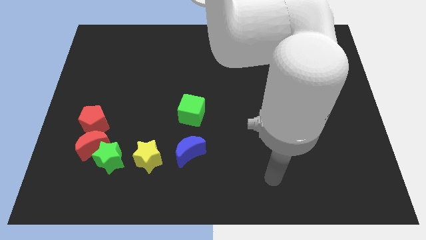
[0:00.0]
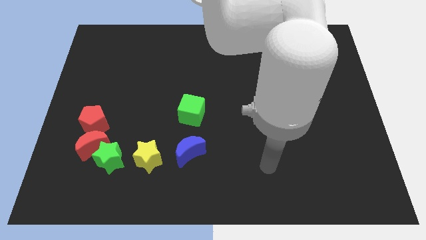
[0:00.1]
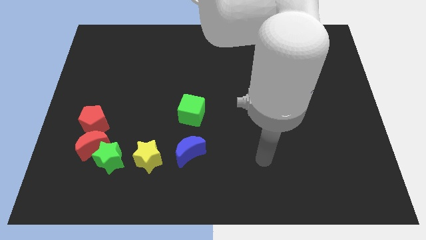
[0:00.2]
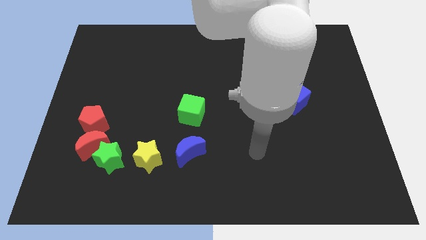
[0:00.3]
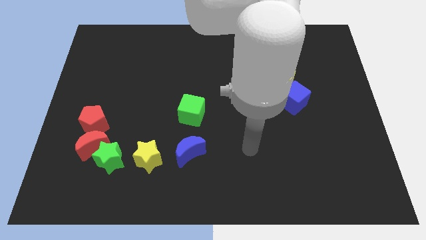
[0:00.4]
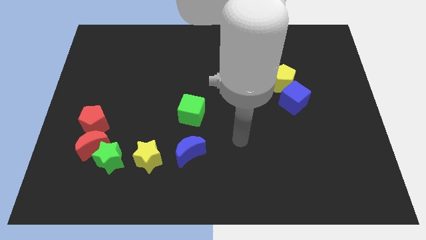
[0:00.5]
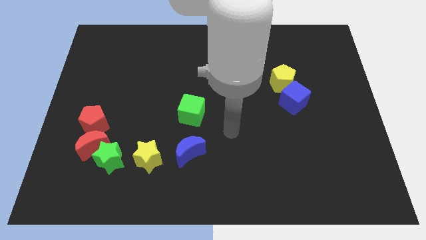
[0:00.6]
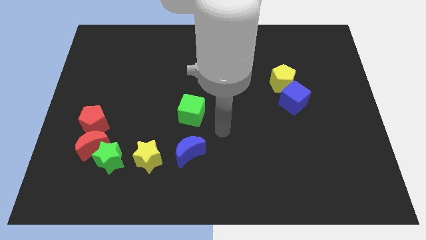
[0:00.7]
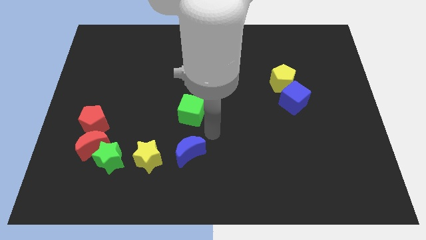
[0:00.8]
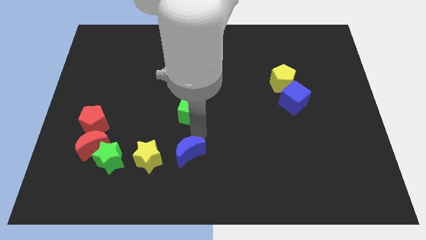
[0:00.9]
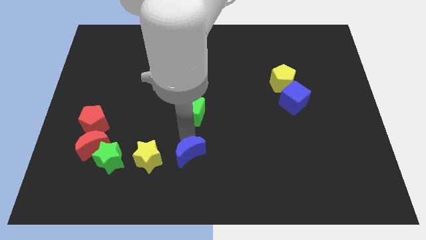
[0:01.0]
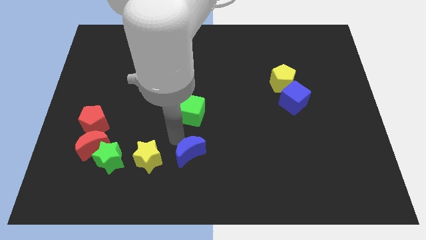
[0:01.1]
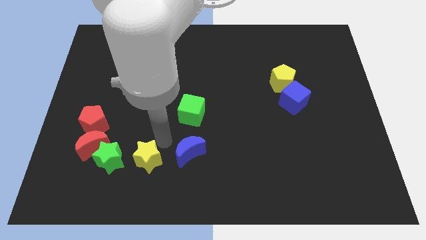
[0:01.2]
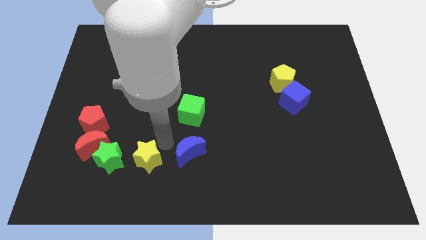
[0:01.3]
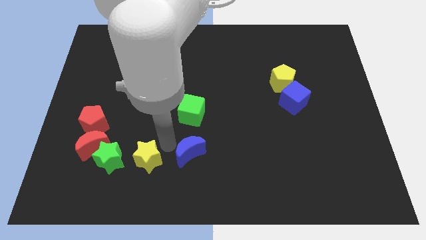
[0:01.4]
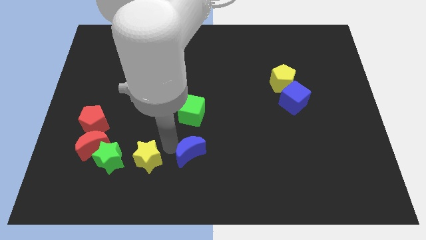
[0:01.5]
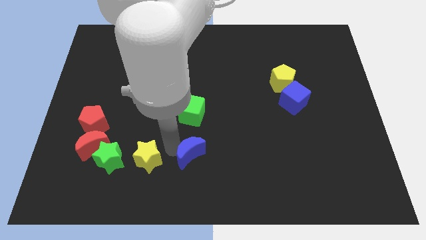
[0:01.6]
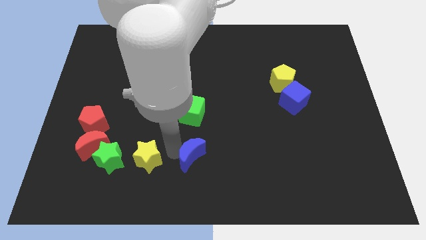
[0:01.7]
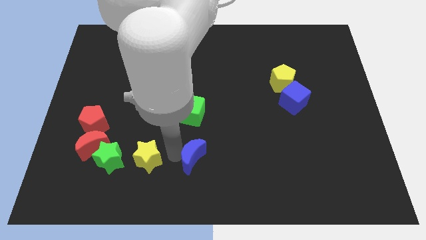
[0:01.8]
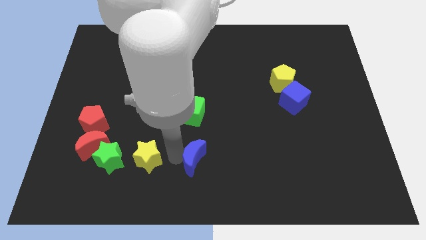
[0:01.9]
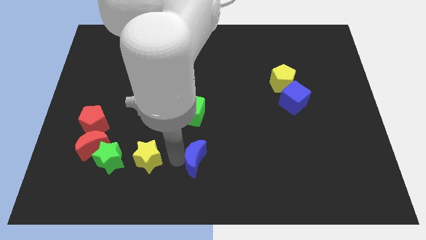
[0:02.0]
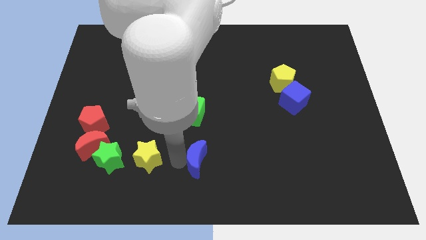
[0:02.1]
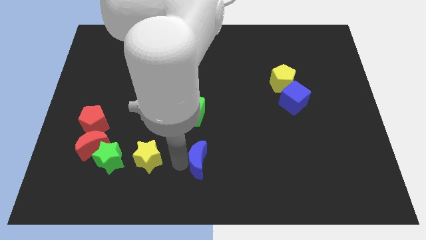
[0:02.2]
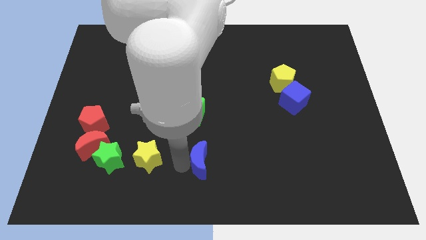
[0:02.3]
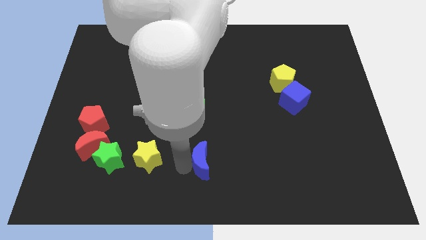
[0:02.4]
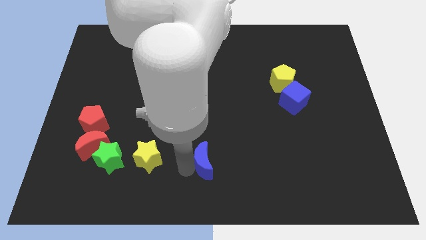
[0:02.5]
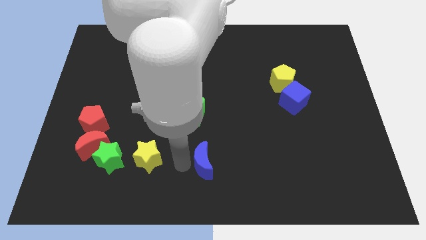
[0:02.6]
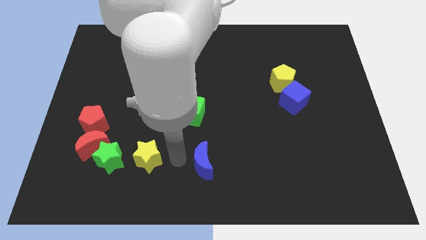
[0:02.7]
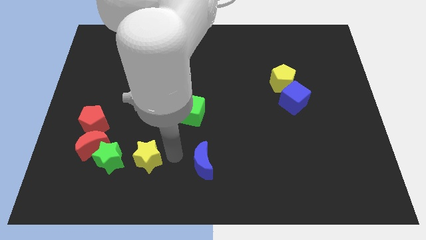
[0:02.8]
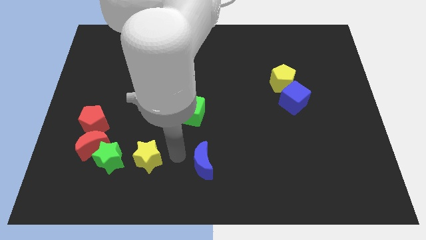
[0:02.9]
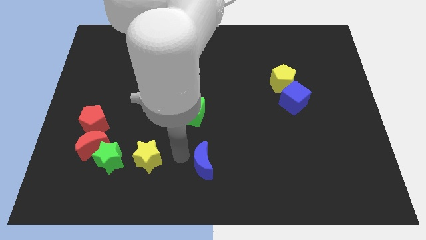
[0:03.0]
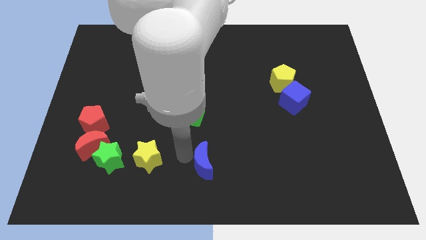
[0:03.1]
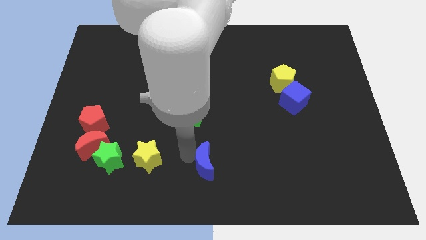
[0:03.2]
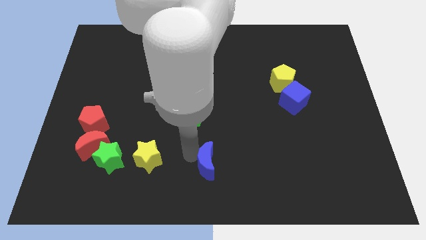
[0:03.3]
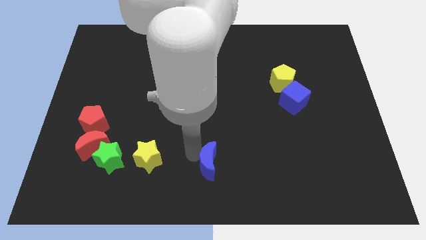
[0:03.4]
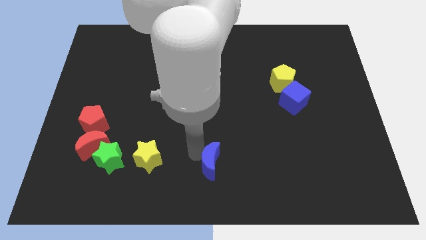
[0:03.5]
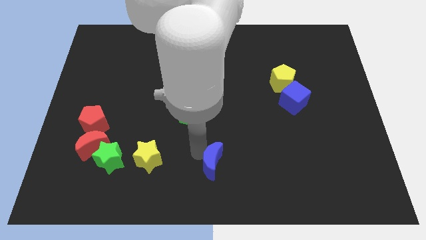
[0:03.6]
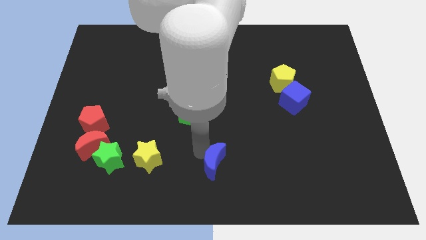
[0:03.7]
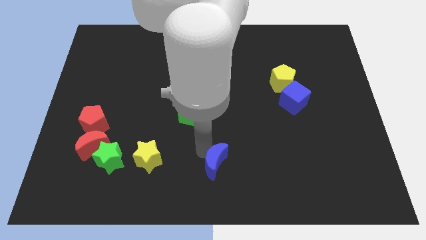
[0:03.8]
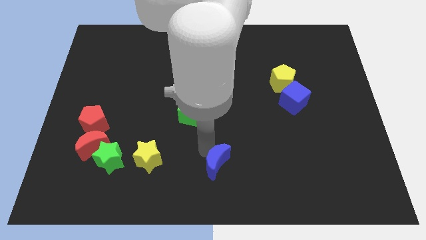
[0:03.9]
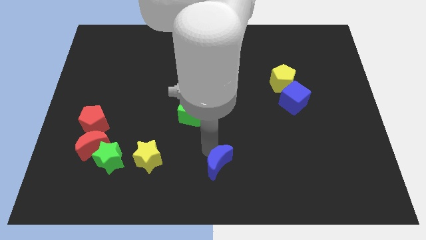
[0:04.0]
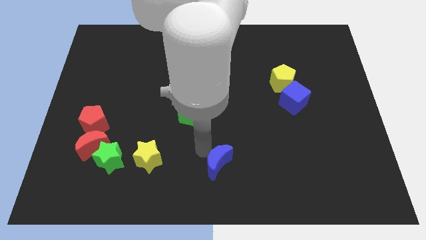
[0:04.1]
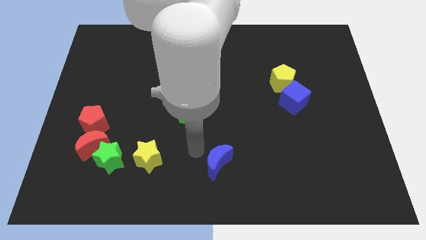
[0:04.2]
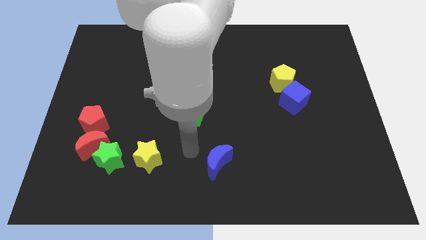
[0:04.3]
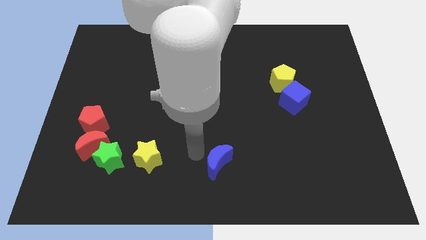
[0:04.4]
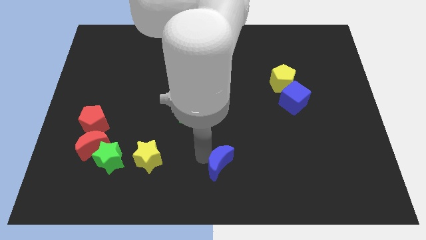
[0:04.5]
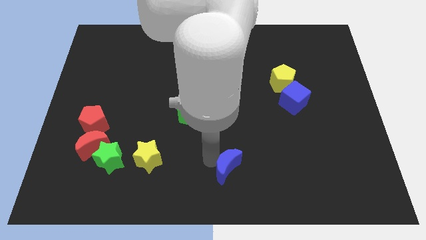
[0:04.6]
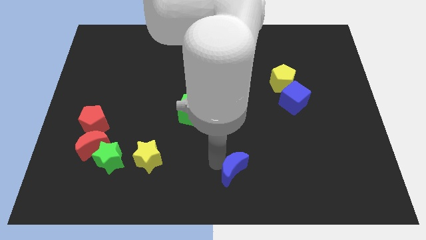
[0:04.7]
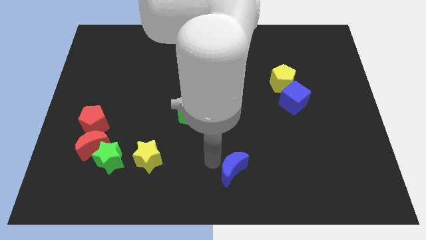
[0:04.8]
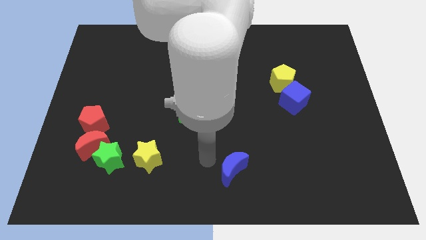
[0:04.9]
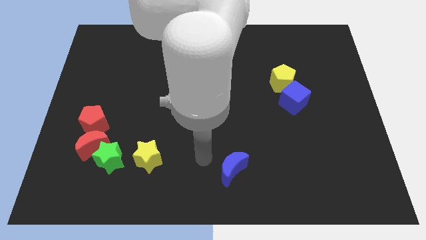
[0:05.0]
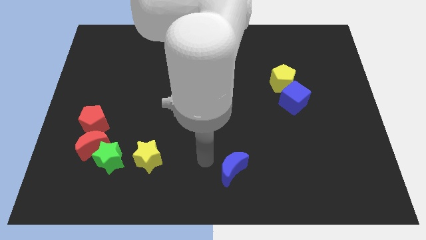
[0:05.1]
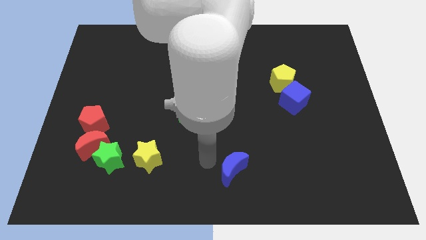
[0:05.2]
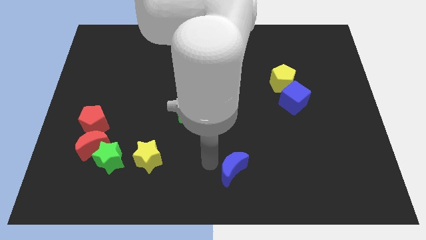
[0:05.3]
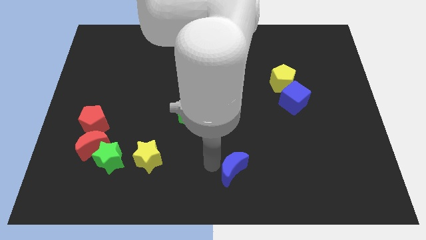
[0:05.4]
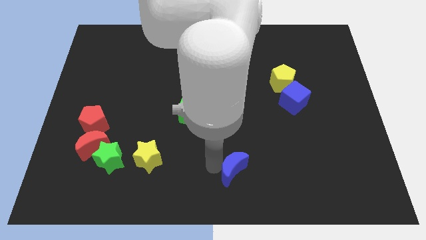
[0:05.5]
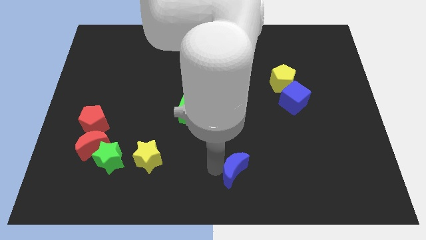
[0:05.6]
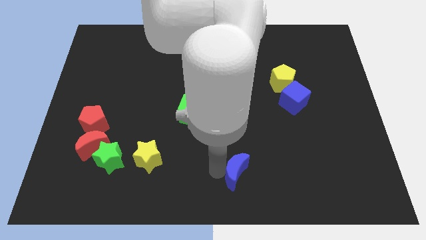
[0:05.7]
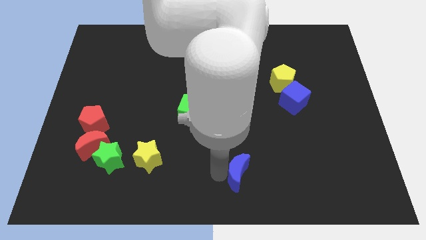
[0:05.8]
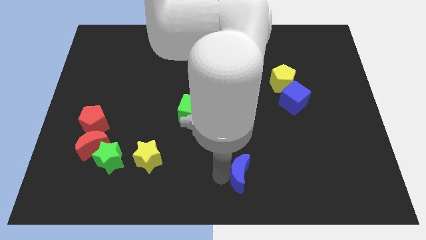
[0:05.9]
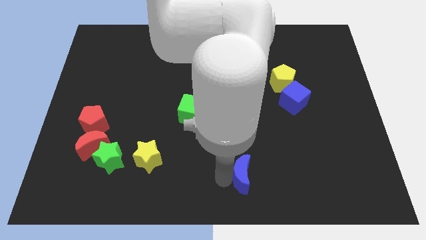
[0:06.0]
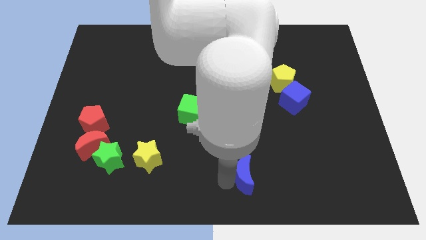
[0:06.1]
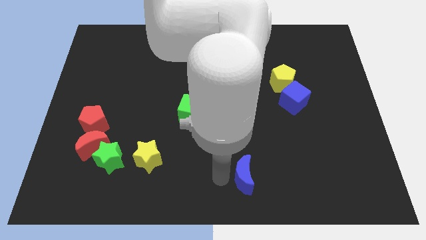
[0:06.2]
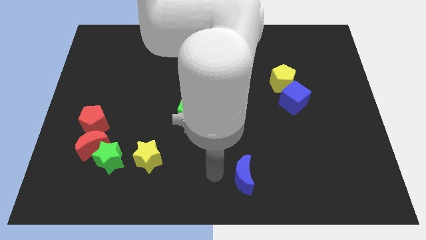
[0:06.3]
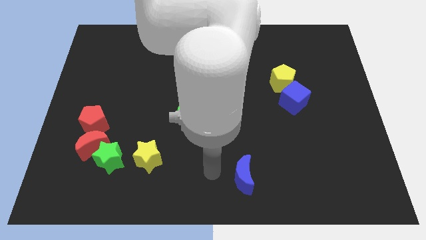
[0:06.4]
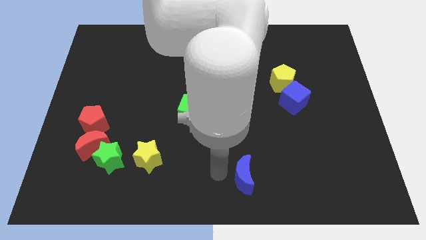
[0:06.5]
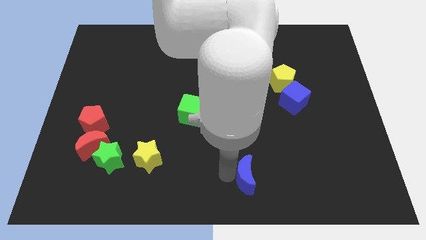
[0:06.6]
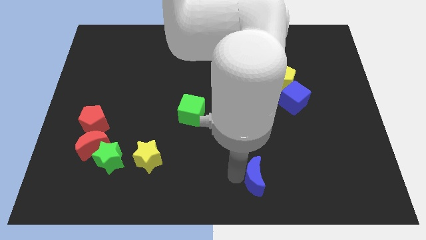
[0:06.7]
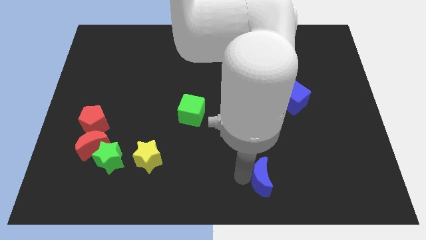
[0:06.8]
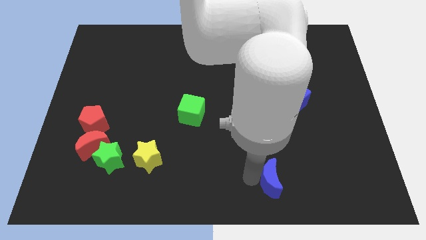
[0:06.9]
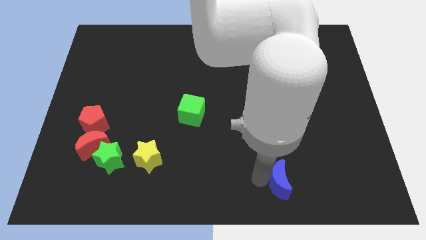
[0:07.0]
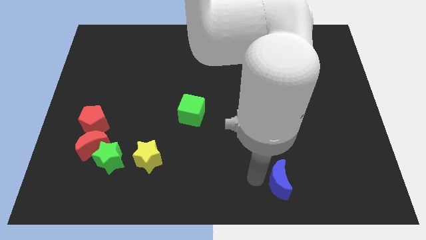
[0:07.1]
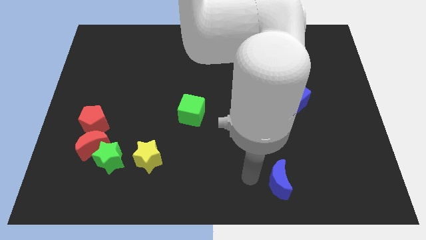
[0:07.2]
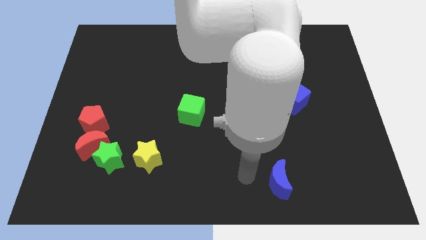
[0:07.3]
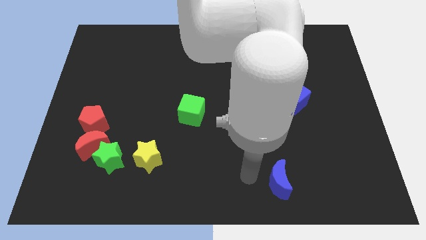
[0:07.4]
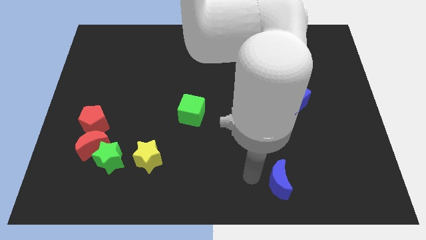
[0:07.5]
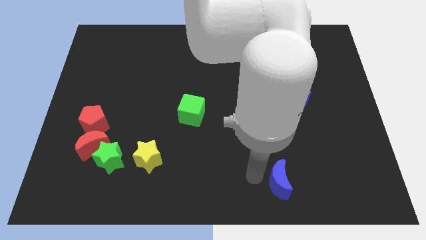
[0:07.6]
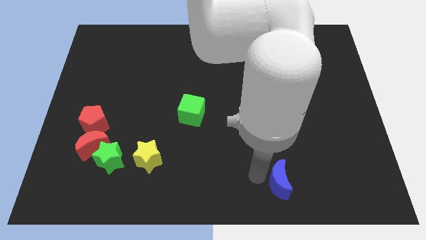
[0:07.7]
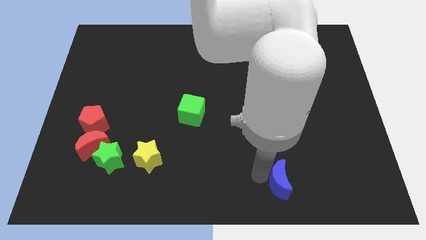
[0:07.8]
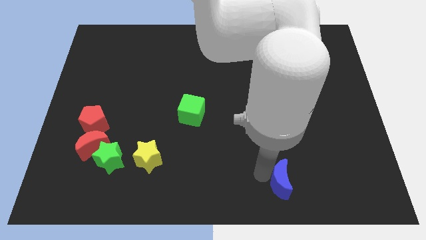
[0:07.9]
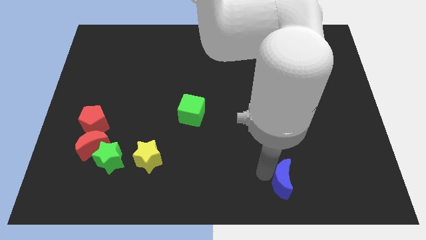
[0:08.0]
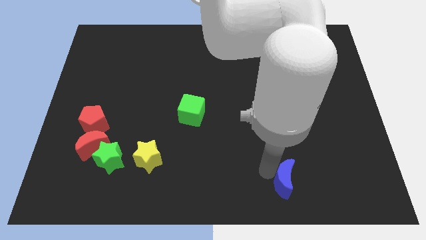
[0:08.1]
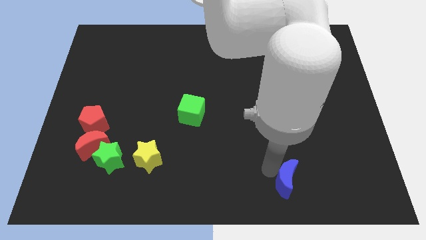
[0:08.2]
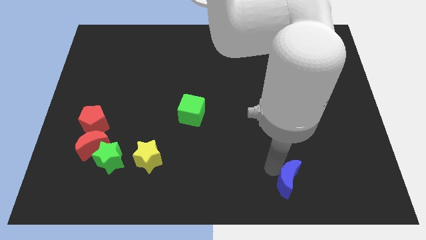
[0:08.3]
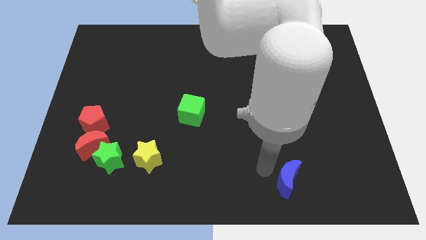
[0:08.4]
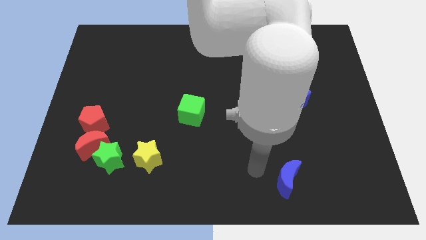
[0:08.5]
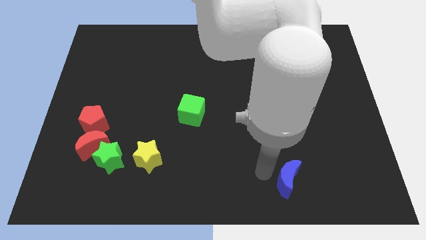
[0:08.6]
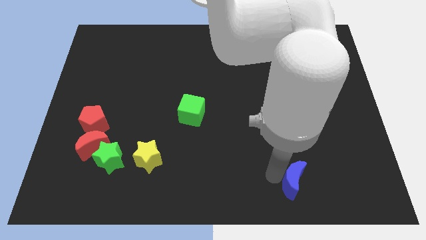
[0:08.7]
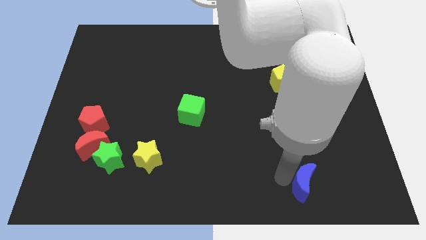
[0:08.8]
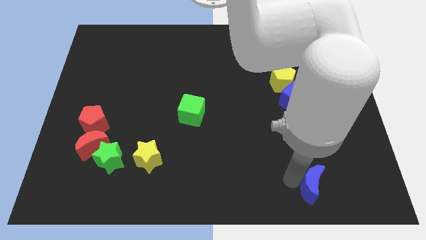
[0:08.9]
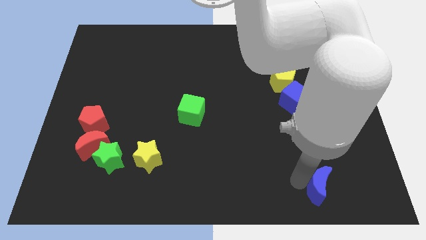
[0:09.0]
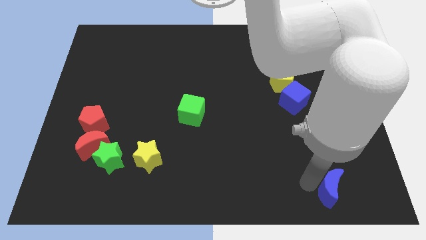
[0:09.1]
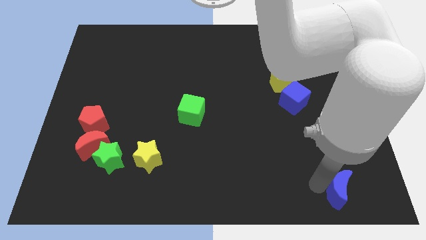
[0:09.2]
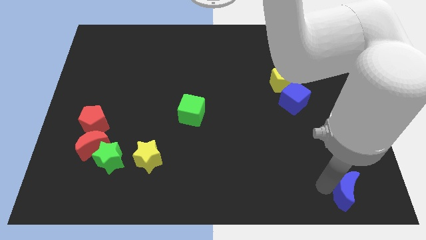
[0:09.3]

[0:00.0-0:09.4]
move the blue moon to the bottom right
